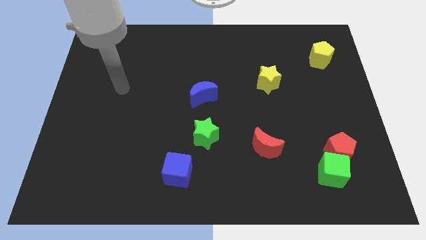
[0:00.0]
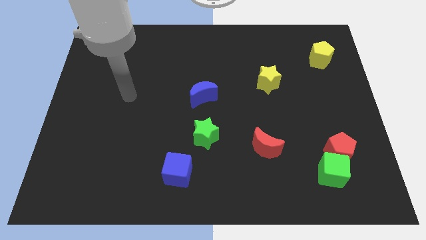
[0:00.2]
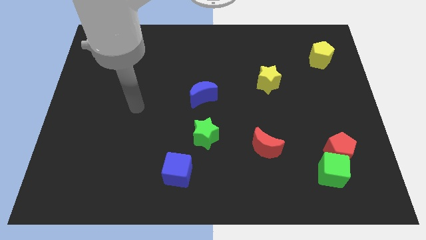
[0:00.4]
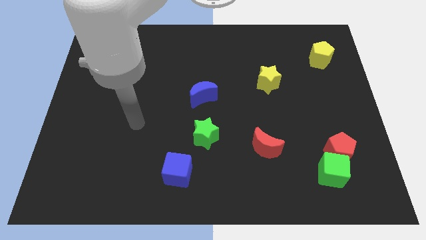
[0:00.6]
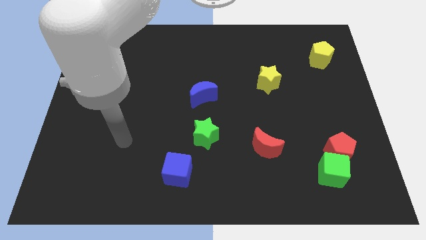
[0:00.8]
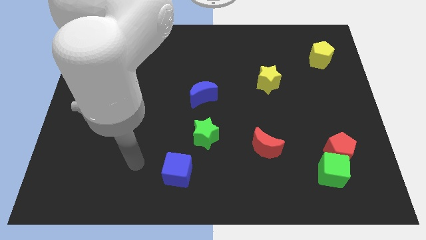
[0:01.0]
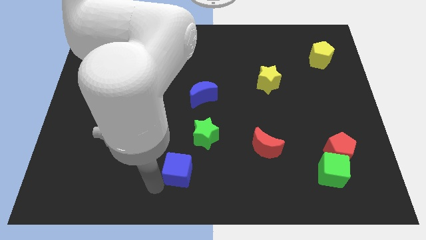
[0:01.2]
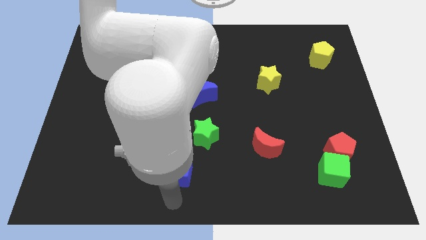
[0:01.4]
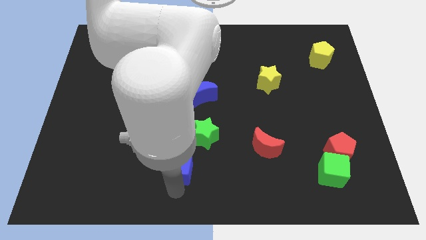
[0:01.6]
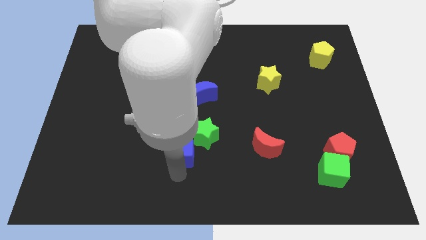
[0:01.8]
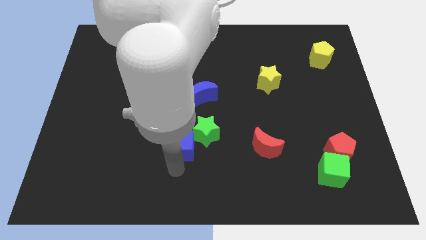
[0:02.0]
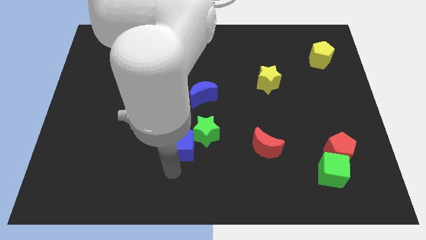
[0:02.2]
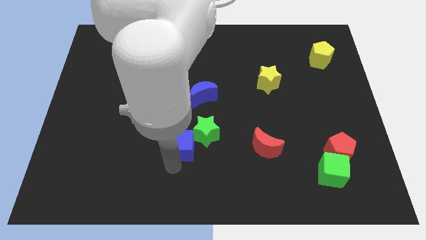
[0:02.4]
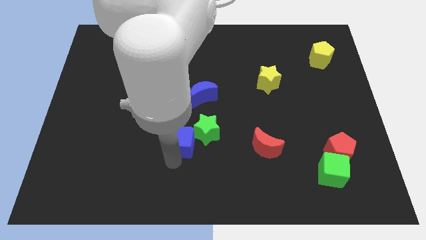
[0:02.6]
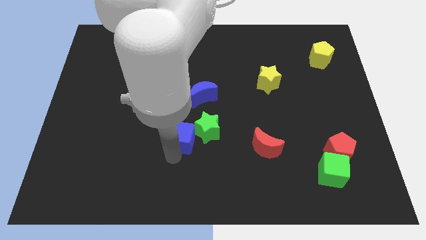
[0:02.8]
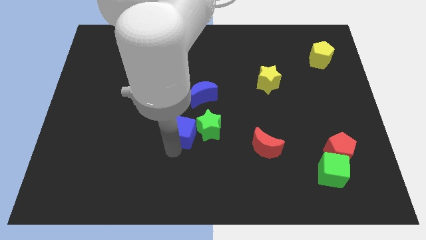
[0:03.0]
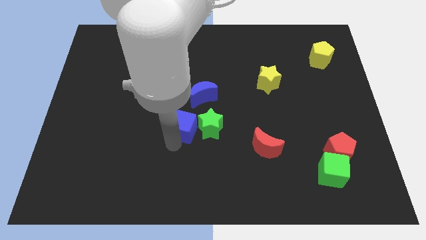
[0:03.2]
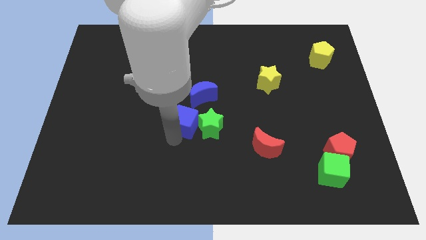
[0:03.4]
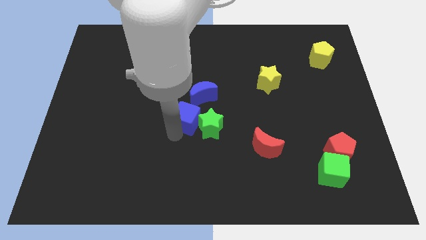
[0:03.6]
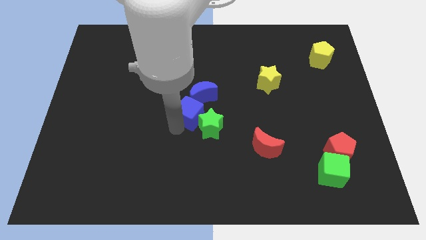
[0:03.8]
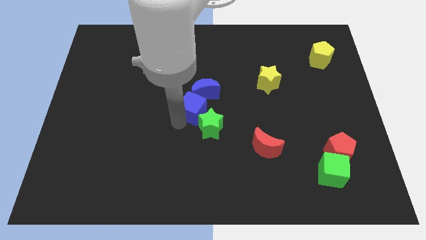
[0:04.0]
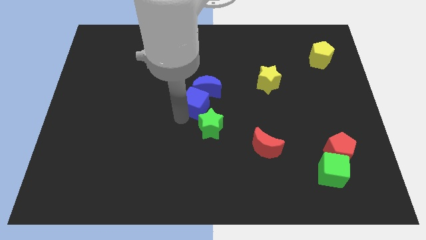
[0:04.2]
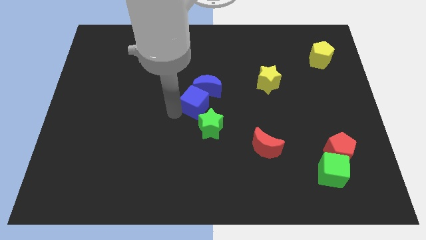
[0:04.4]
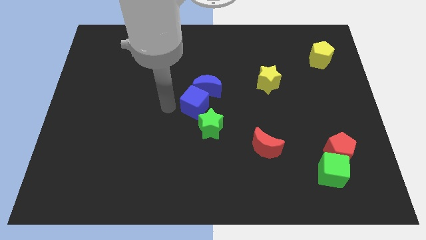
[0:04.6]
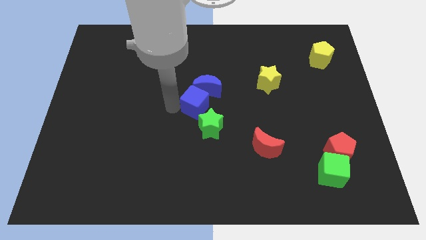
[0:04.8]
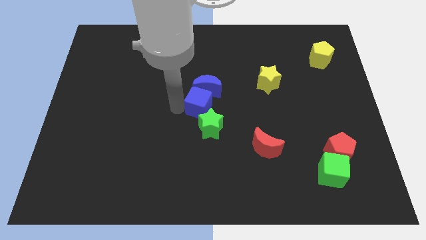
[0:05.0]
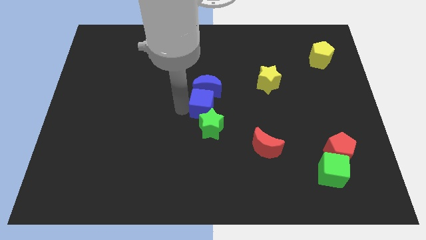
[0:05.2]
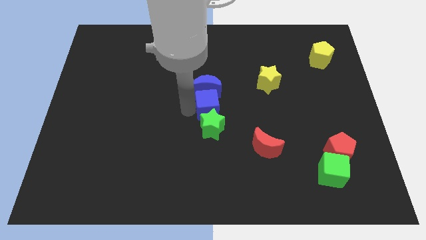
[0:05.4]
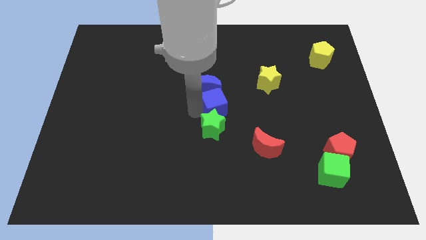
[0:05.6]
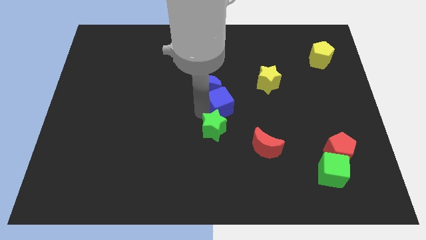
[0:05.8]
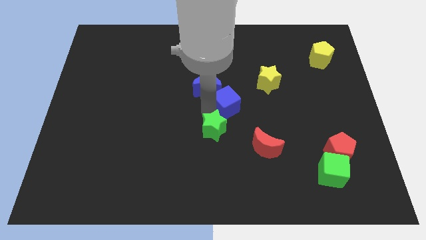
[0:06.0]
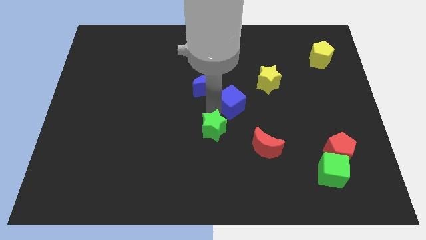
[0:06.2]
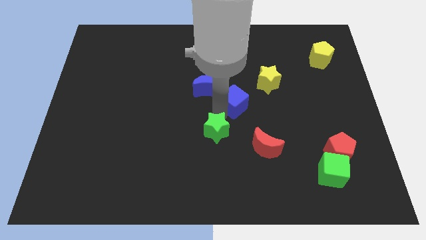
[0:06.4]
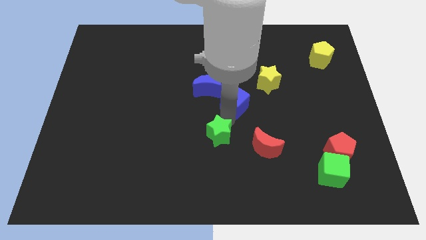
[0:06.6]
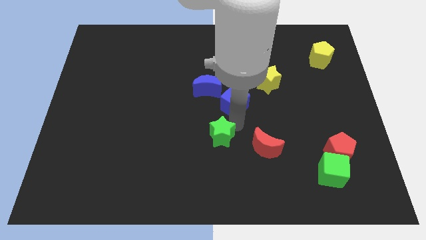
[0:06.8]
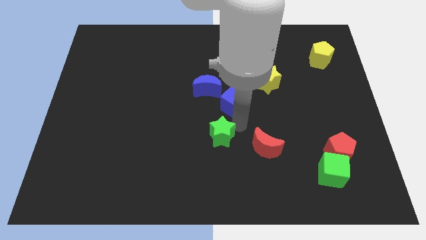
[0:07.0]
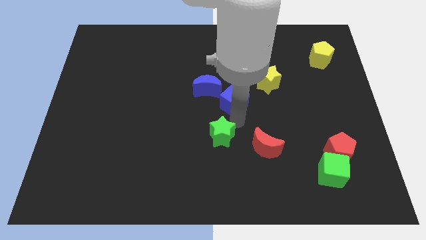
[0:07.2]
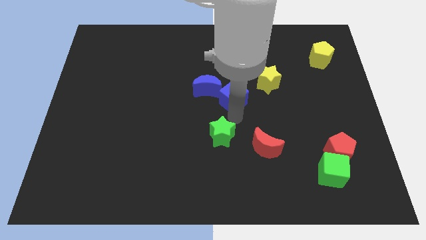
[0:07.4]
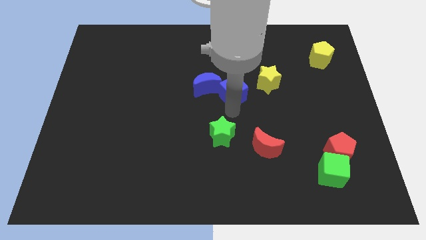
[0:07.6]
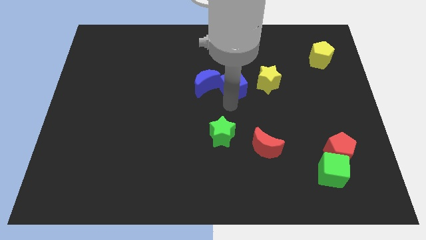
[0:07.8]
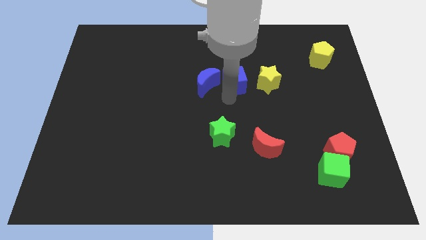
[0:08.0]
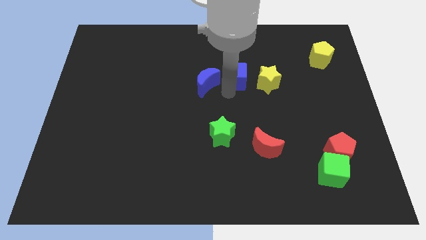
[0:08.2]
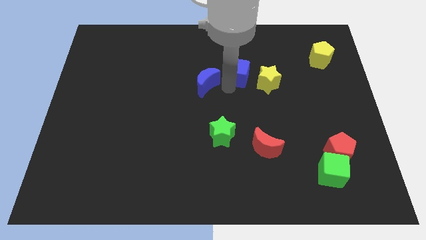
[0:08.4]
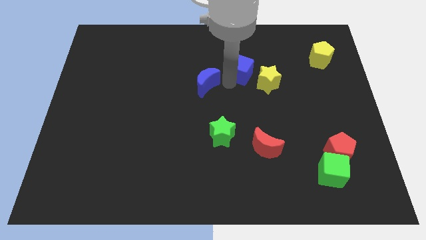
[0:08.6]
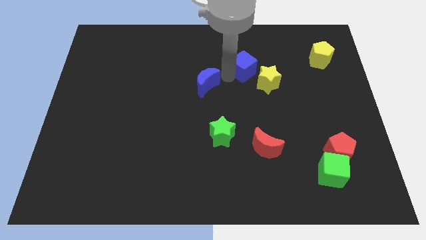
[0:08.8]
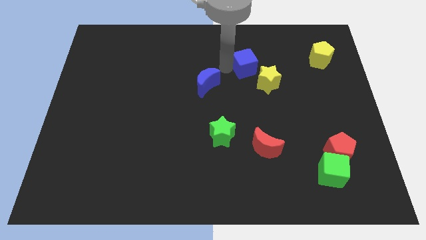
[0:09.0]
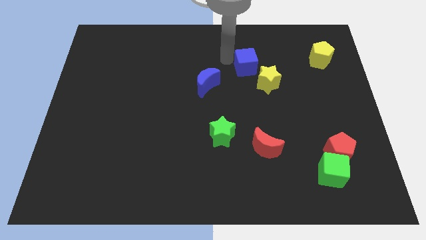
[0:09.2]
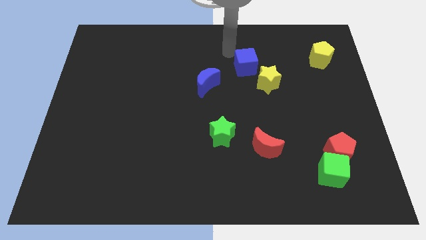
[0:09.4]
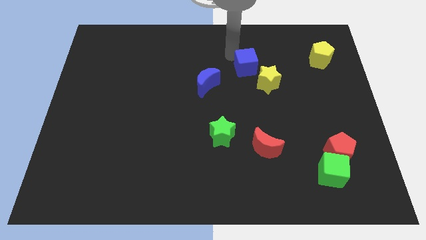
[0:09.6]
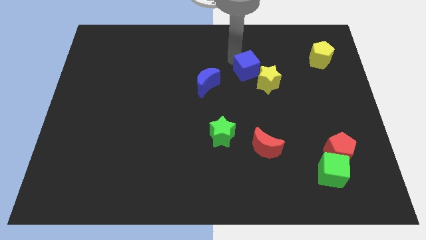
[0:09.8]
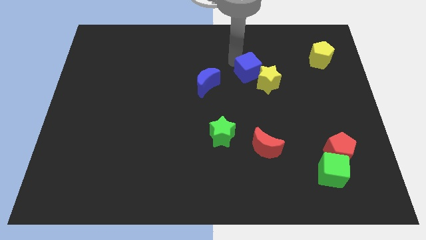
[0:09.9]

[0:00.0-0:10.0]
slide the blue cube close to the yellow star

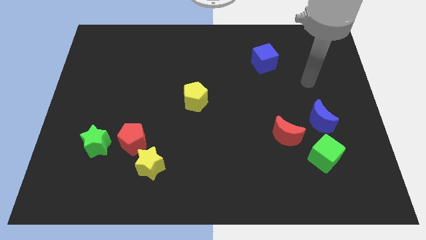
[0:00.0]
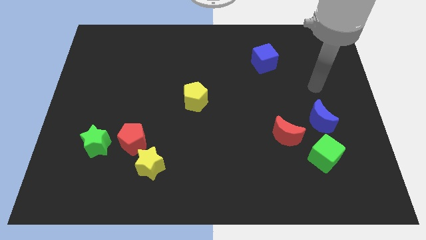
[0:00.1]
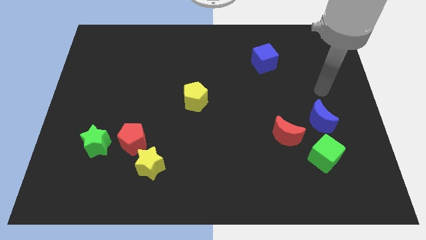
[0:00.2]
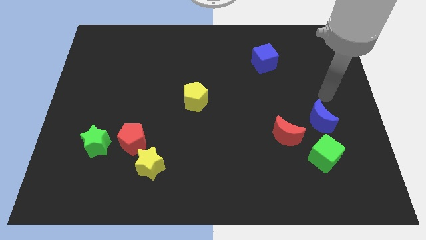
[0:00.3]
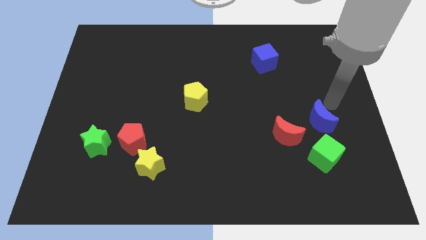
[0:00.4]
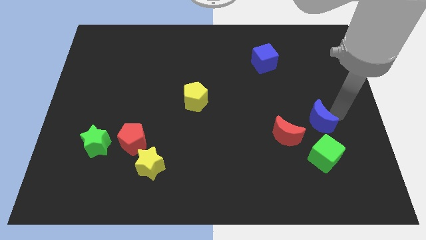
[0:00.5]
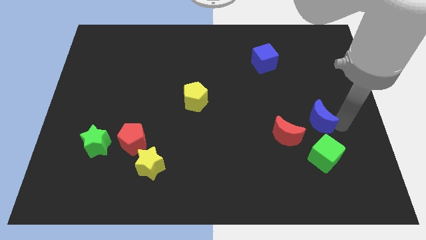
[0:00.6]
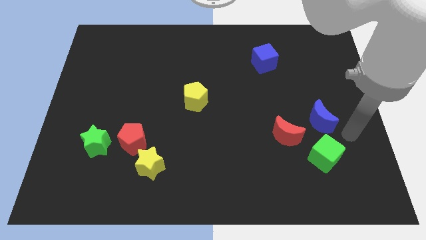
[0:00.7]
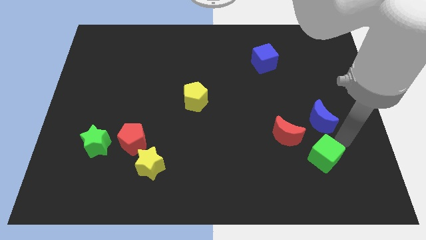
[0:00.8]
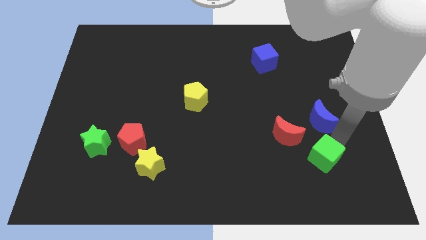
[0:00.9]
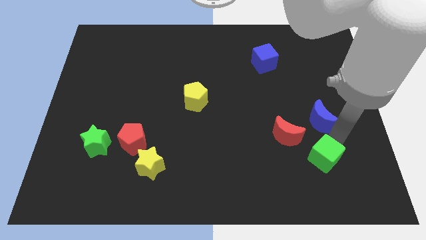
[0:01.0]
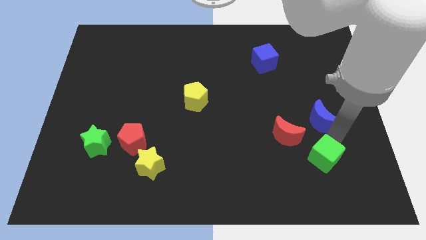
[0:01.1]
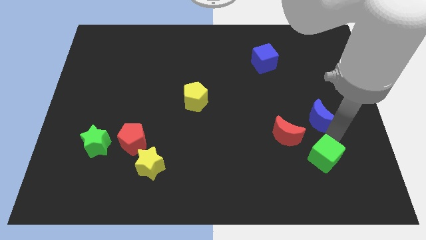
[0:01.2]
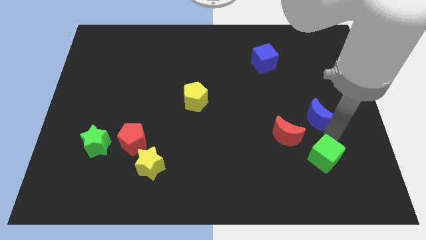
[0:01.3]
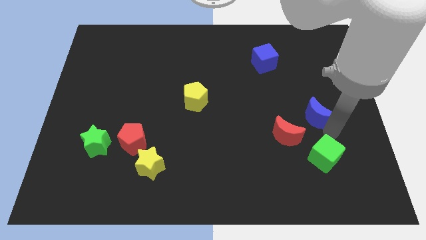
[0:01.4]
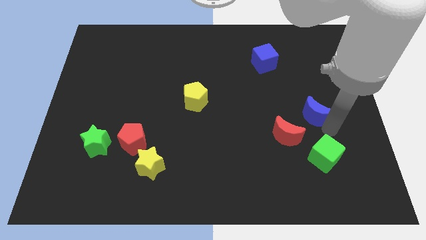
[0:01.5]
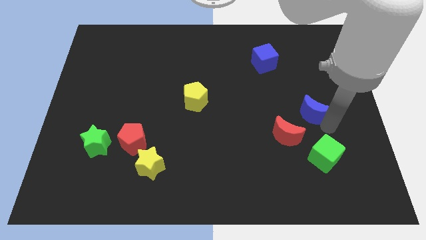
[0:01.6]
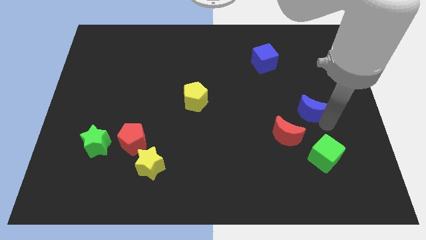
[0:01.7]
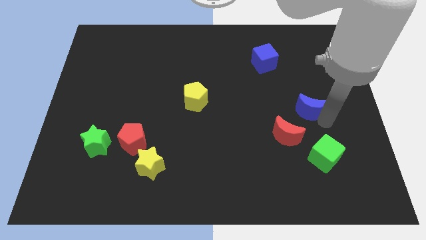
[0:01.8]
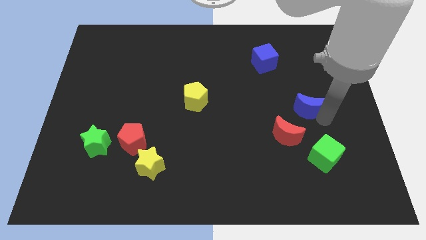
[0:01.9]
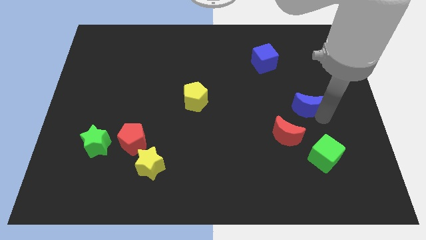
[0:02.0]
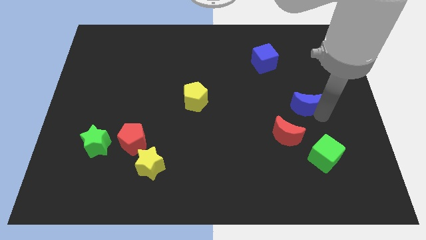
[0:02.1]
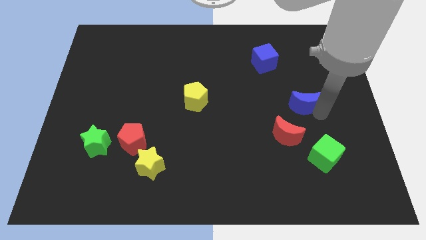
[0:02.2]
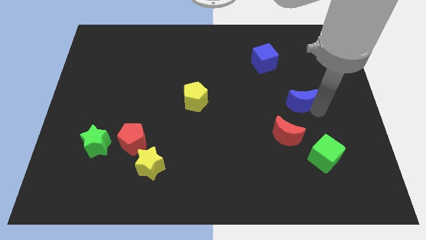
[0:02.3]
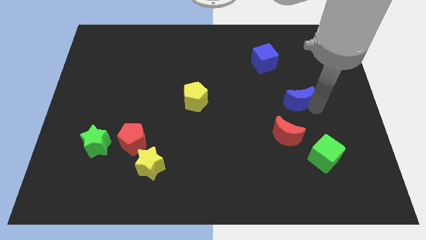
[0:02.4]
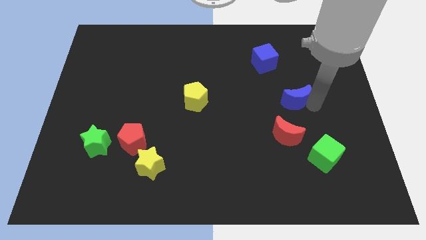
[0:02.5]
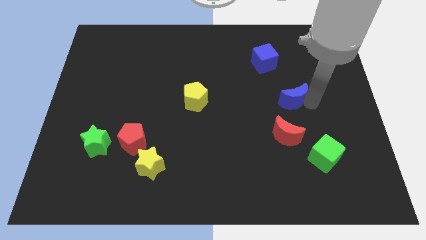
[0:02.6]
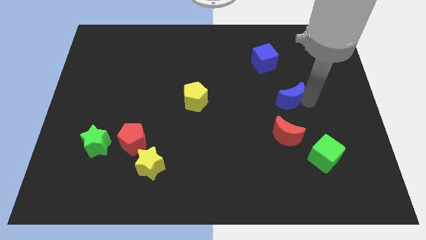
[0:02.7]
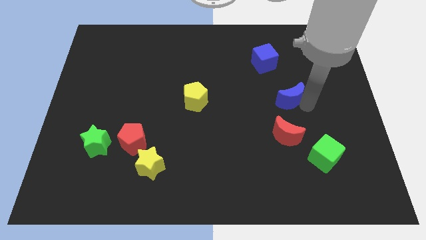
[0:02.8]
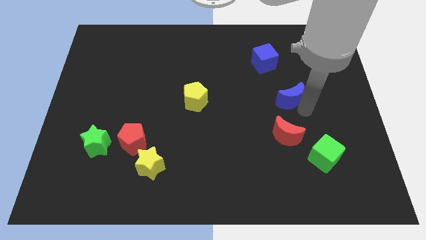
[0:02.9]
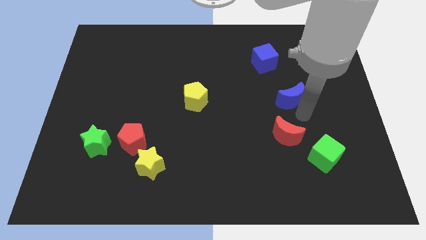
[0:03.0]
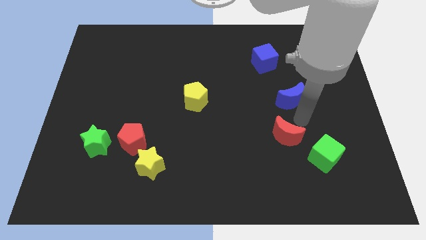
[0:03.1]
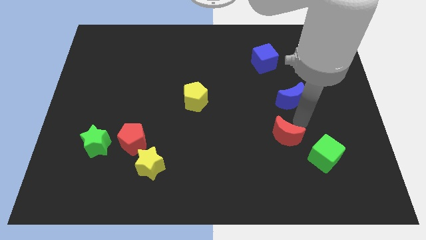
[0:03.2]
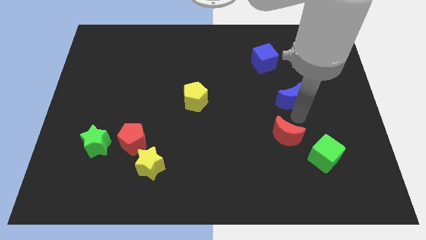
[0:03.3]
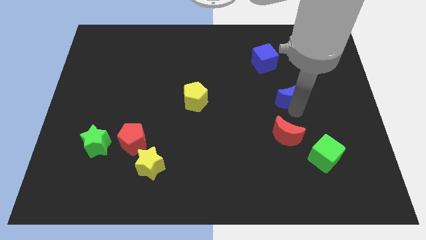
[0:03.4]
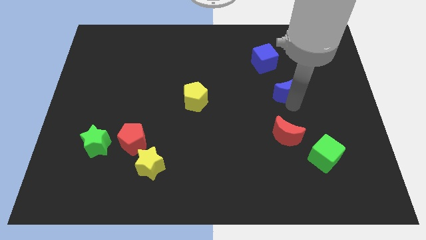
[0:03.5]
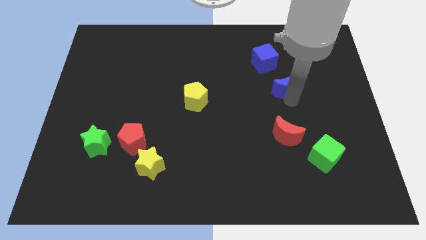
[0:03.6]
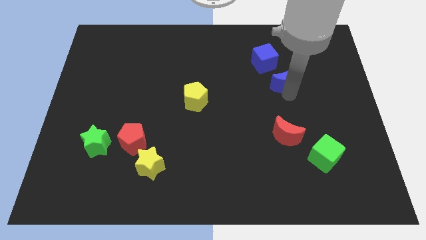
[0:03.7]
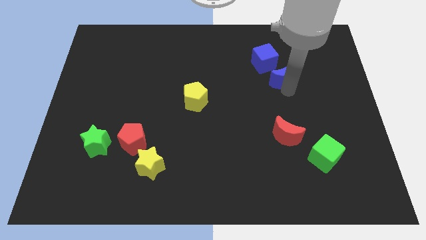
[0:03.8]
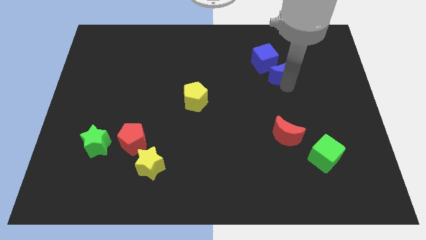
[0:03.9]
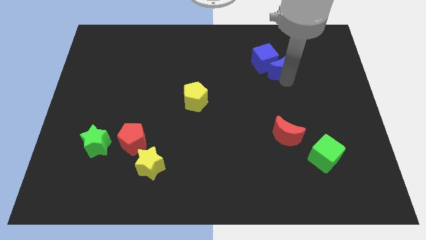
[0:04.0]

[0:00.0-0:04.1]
put the blue moon close to the blue cube
